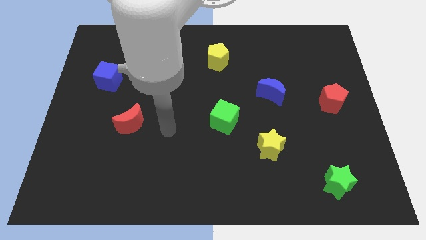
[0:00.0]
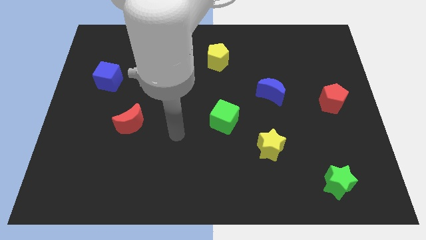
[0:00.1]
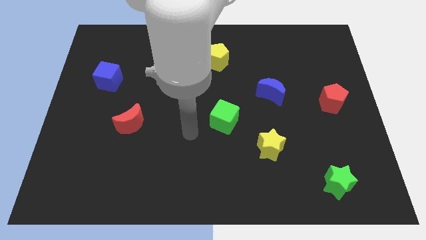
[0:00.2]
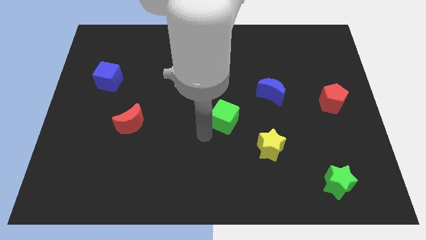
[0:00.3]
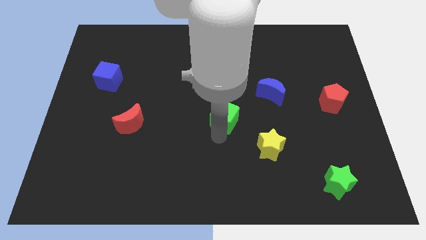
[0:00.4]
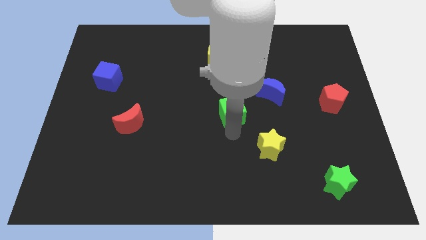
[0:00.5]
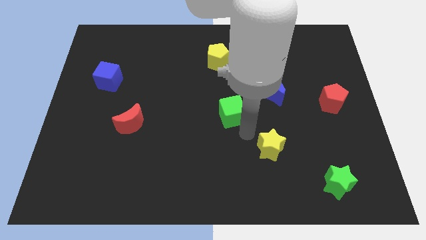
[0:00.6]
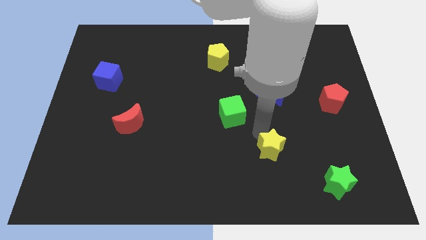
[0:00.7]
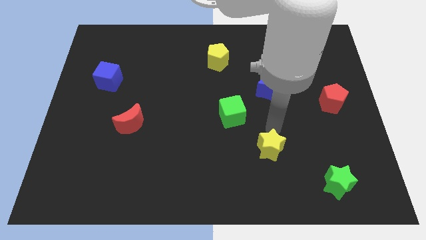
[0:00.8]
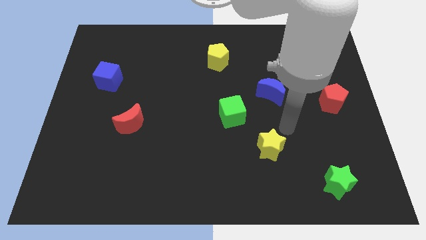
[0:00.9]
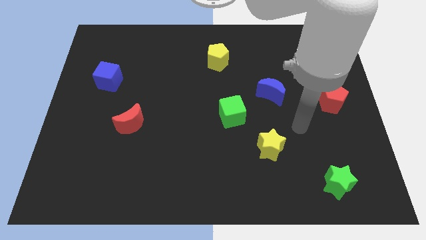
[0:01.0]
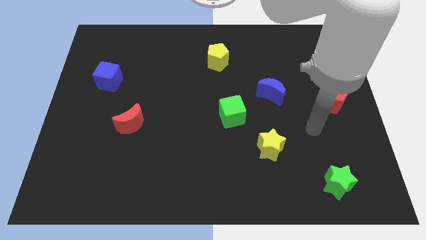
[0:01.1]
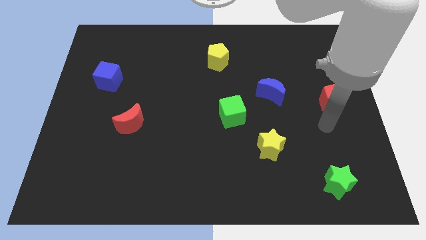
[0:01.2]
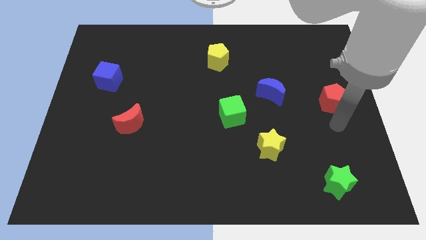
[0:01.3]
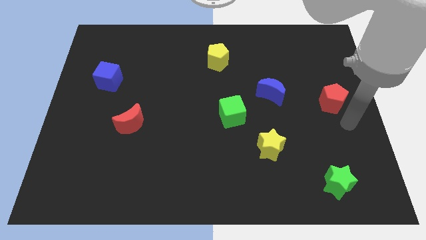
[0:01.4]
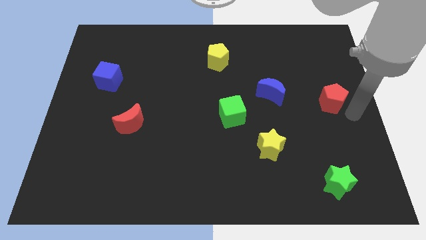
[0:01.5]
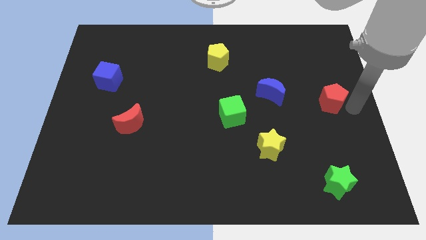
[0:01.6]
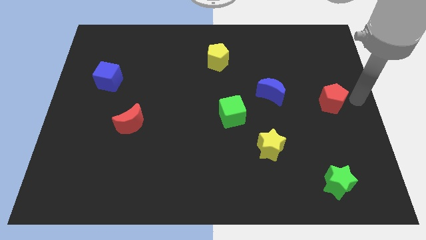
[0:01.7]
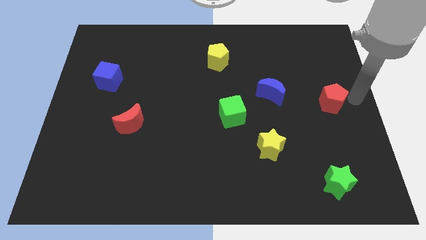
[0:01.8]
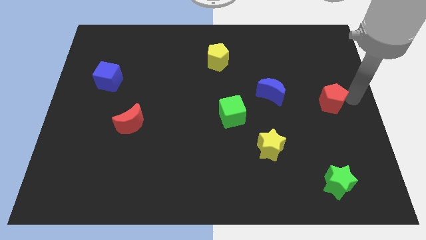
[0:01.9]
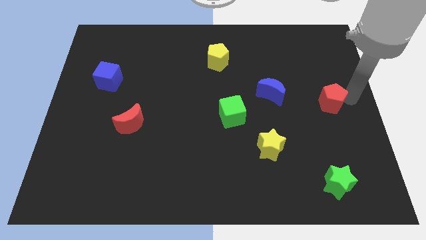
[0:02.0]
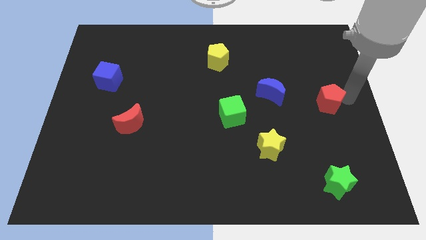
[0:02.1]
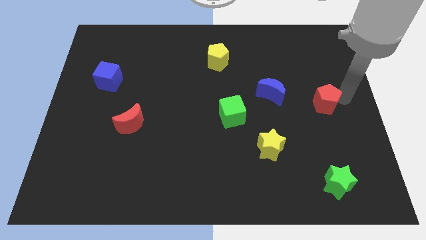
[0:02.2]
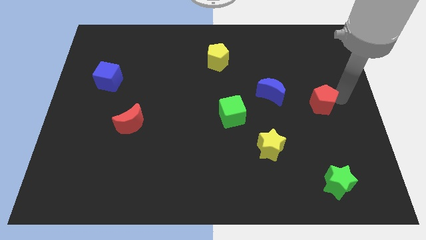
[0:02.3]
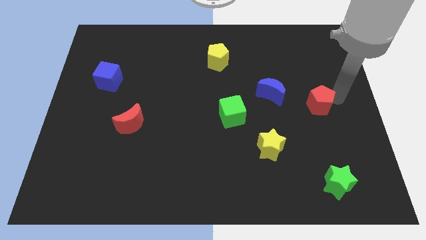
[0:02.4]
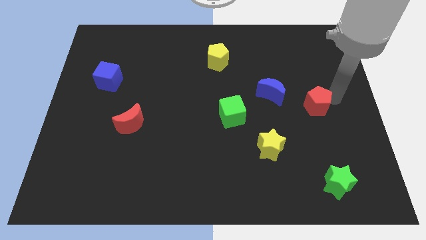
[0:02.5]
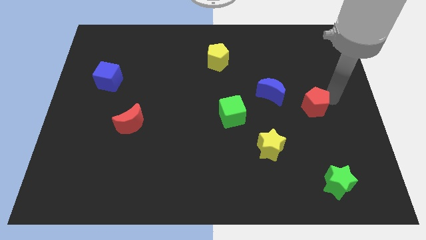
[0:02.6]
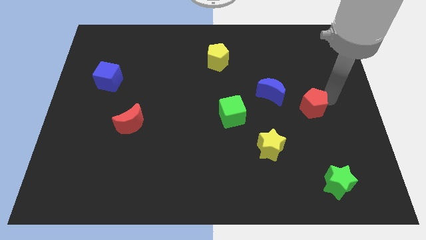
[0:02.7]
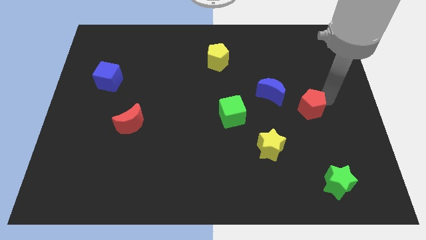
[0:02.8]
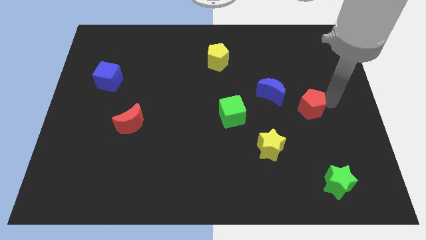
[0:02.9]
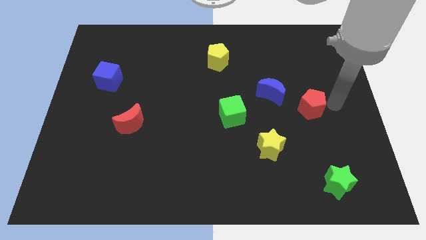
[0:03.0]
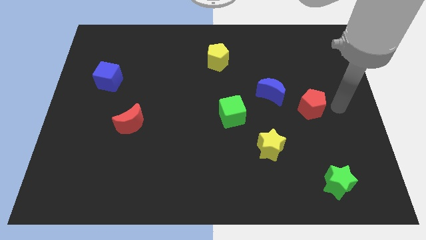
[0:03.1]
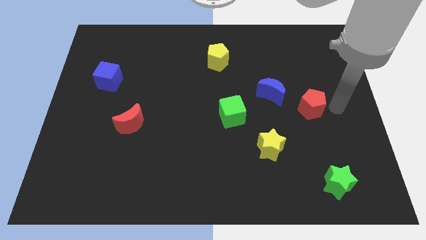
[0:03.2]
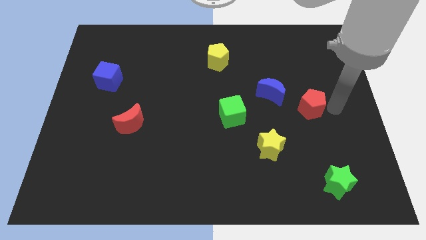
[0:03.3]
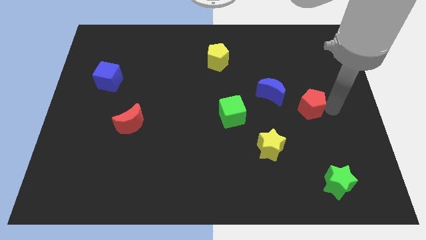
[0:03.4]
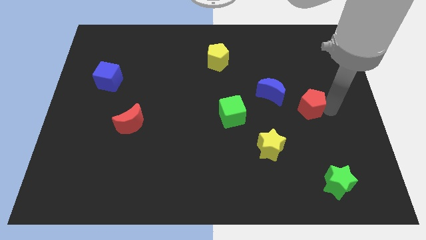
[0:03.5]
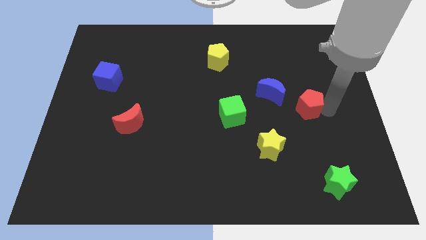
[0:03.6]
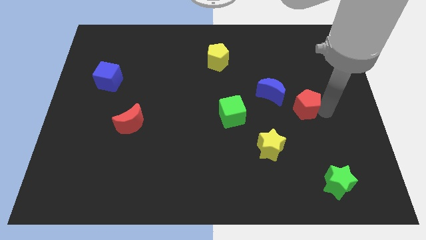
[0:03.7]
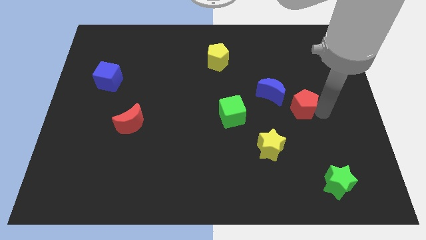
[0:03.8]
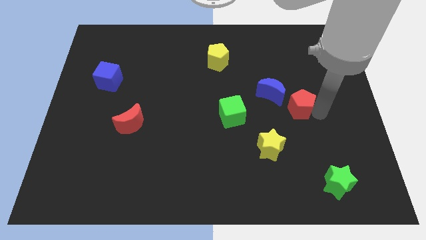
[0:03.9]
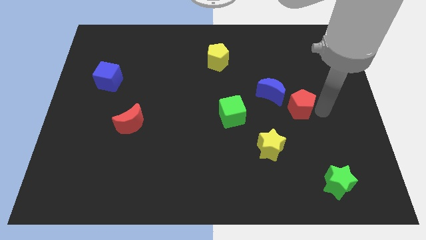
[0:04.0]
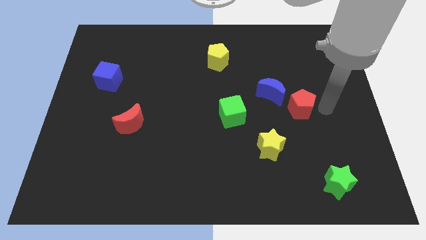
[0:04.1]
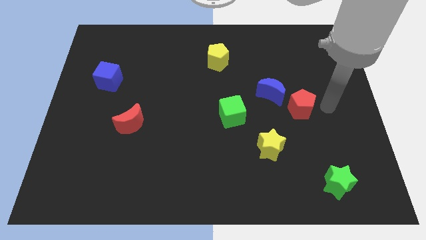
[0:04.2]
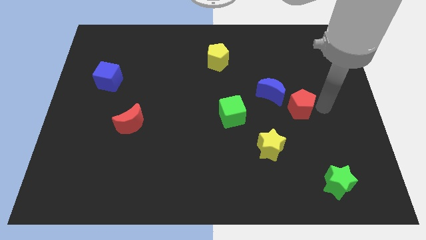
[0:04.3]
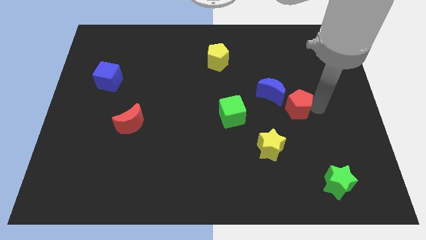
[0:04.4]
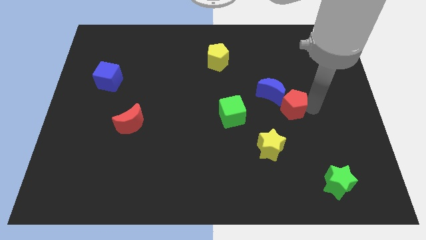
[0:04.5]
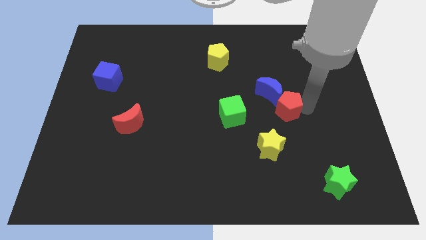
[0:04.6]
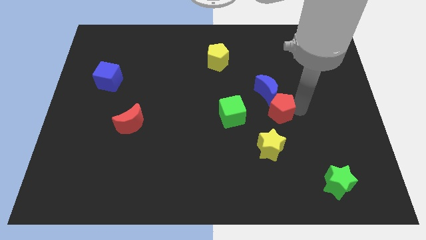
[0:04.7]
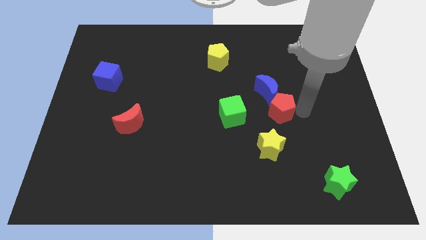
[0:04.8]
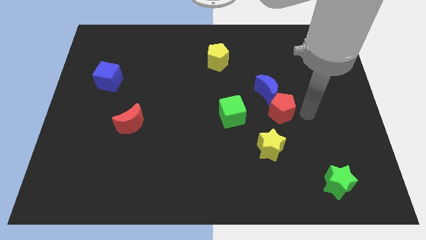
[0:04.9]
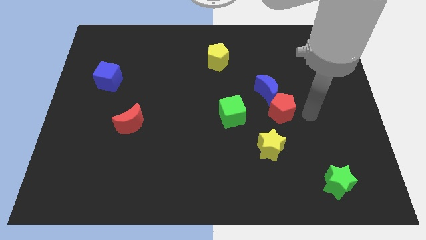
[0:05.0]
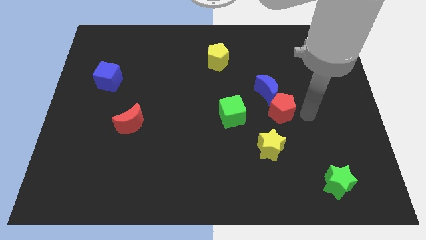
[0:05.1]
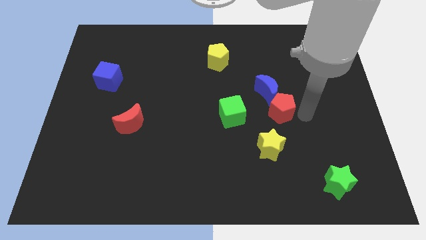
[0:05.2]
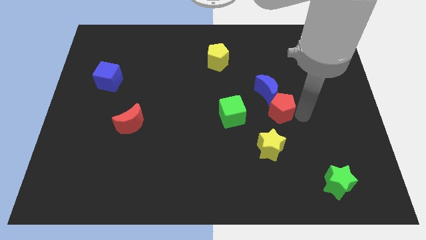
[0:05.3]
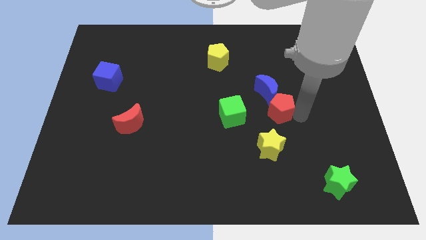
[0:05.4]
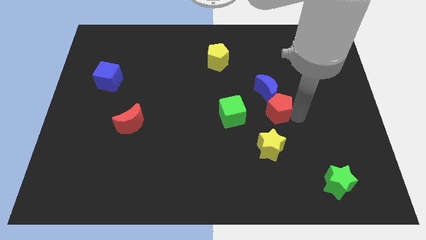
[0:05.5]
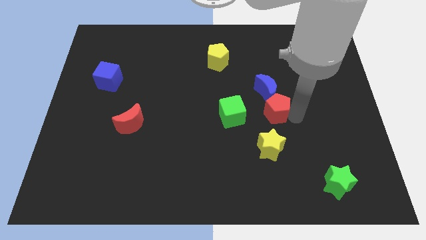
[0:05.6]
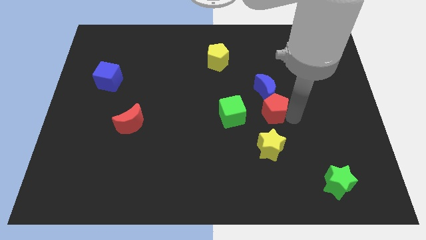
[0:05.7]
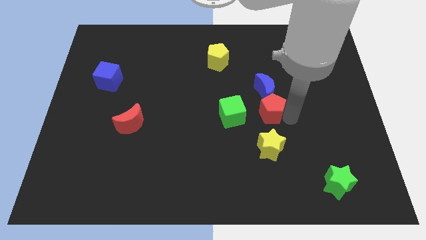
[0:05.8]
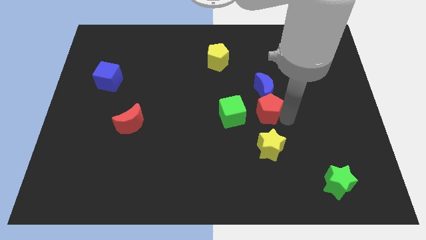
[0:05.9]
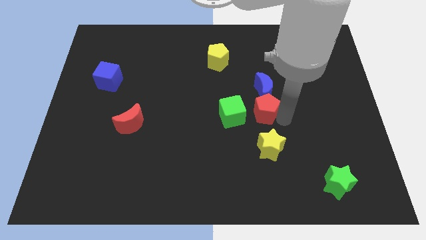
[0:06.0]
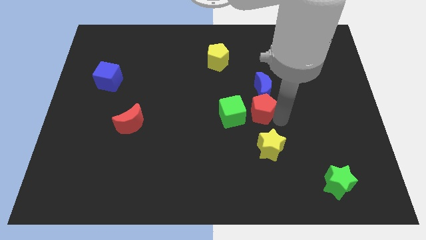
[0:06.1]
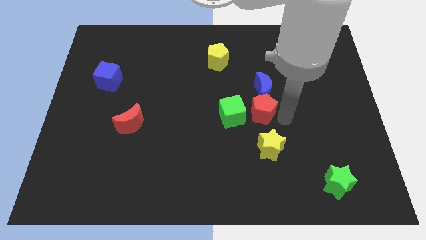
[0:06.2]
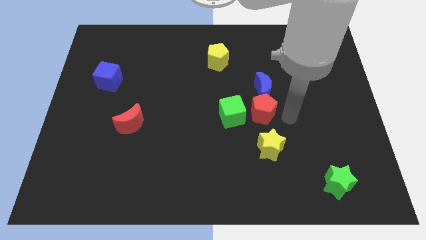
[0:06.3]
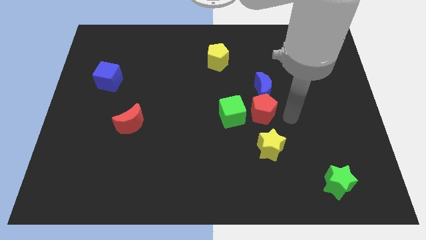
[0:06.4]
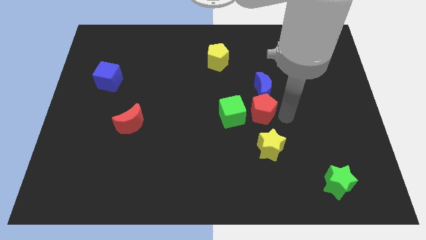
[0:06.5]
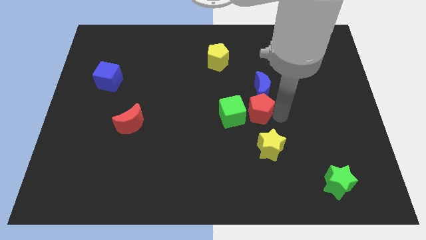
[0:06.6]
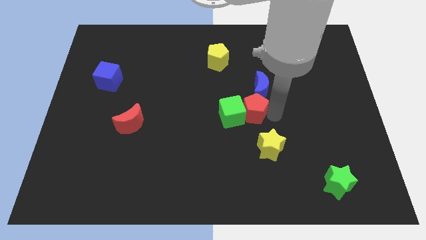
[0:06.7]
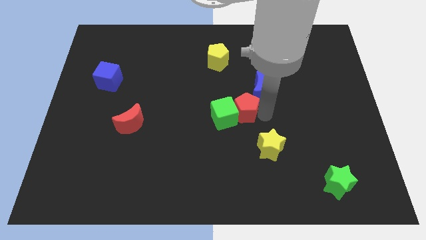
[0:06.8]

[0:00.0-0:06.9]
slide the red pentagon left

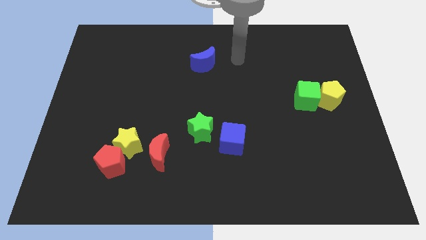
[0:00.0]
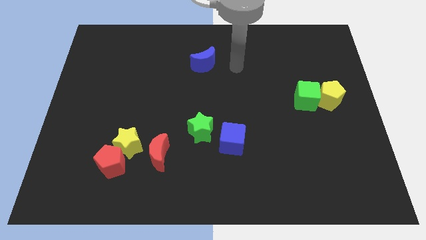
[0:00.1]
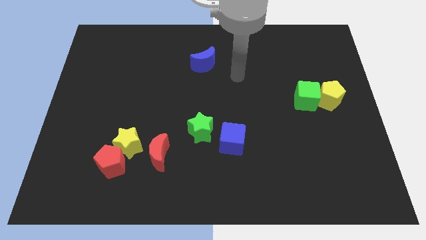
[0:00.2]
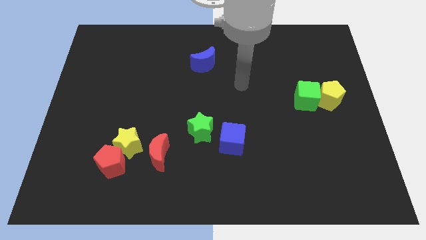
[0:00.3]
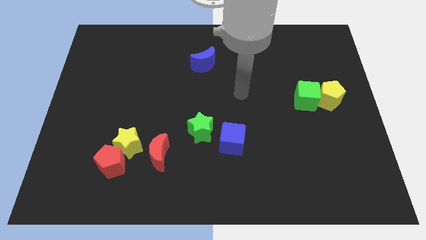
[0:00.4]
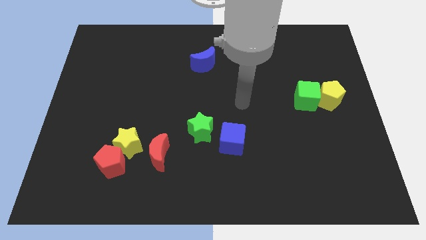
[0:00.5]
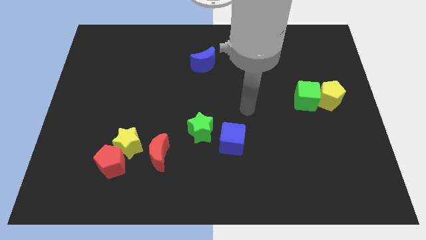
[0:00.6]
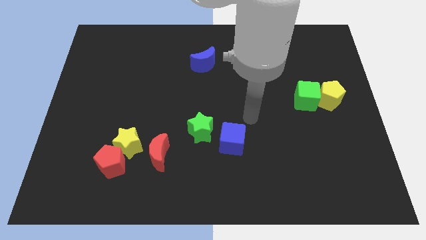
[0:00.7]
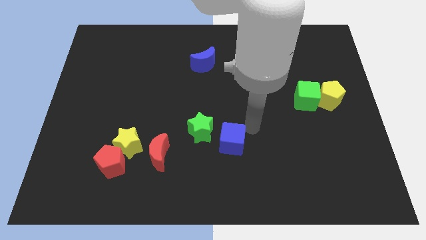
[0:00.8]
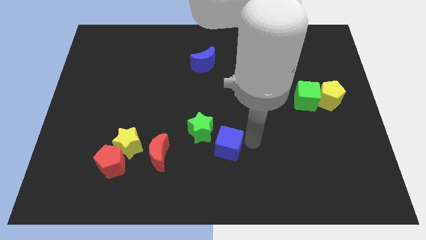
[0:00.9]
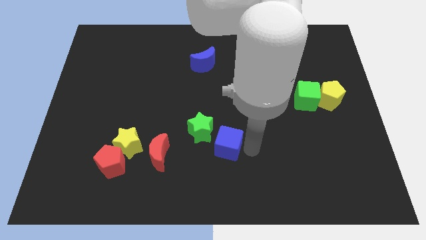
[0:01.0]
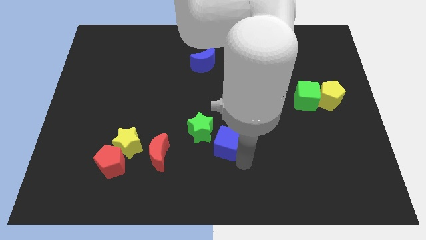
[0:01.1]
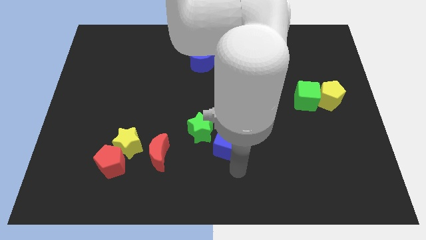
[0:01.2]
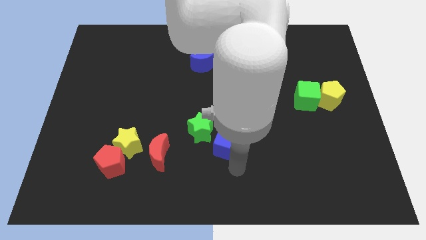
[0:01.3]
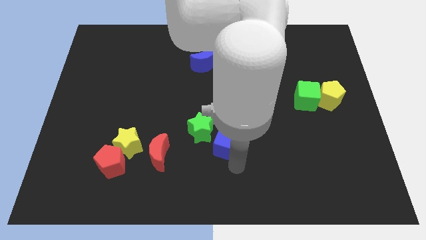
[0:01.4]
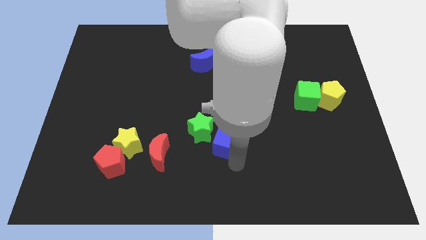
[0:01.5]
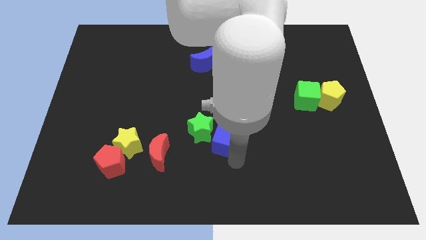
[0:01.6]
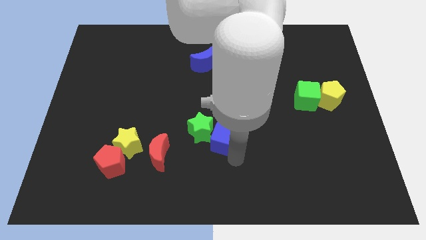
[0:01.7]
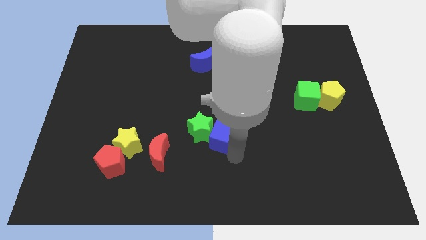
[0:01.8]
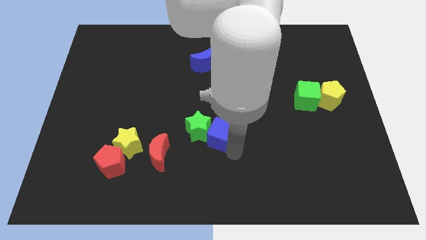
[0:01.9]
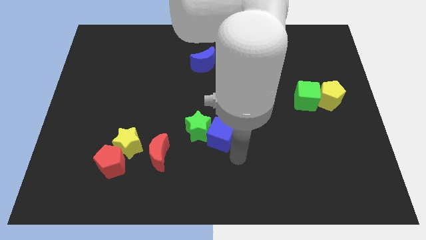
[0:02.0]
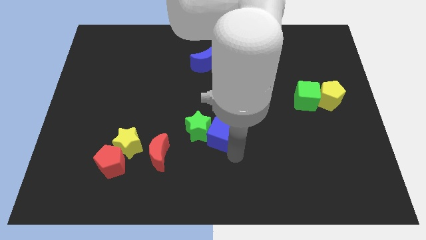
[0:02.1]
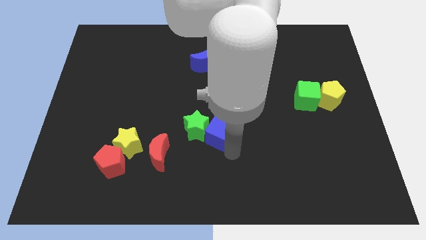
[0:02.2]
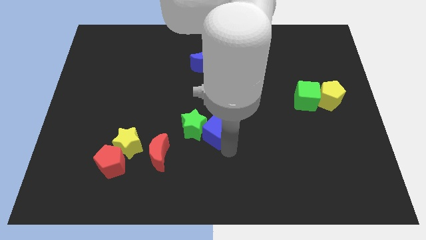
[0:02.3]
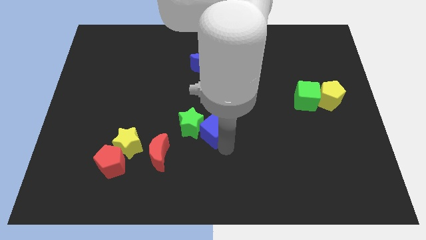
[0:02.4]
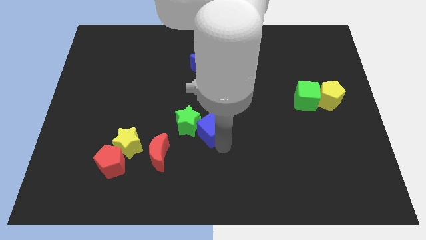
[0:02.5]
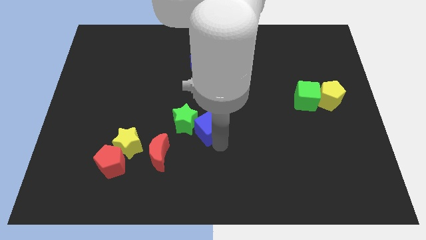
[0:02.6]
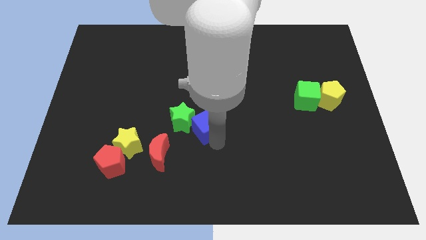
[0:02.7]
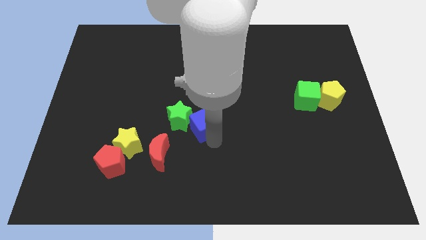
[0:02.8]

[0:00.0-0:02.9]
slightly slide the blue cube diagonally up and left
